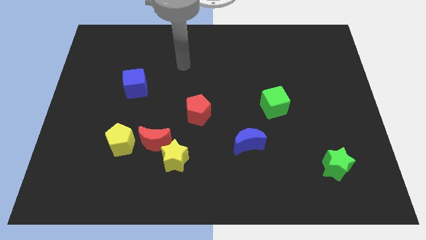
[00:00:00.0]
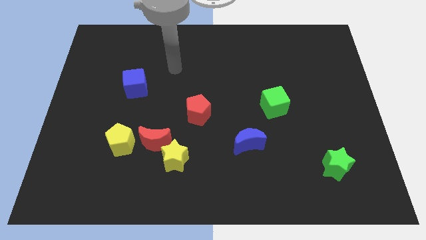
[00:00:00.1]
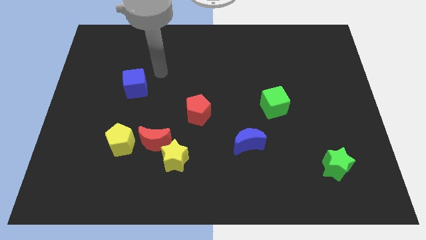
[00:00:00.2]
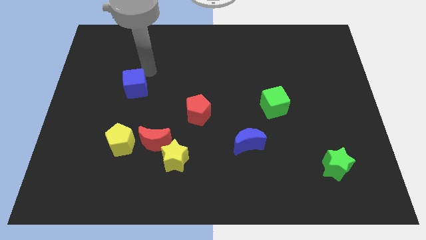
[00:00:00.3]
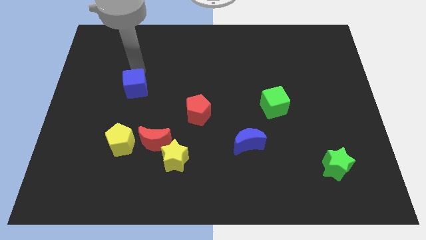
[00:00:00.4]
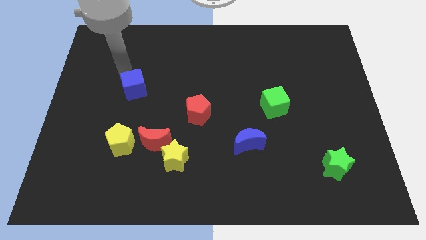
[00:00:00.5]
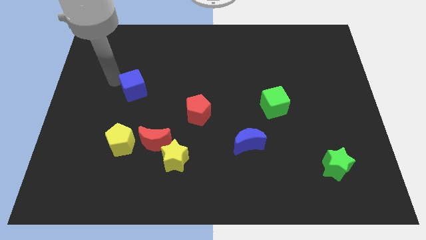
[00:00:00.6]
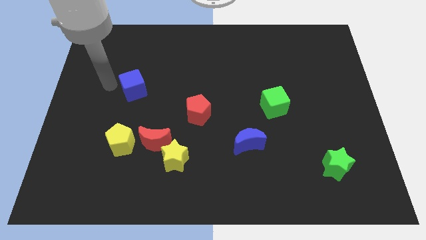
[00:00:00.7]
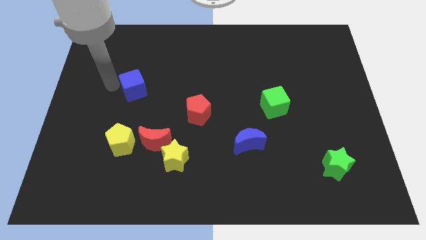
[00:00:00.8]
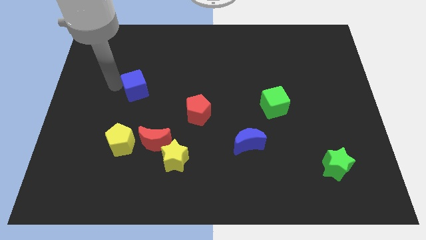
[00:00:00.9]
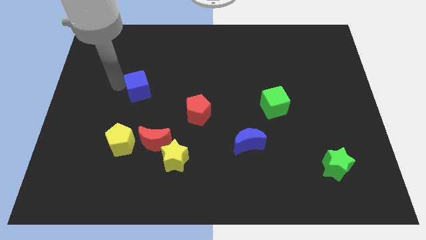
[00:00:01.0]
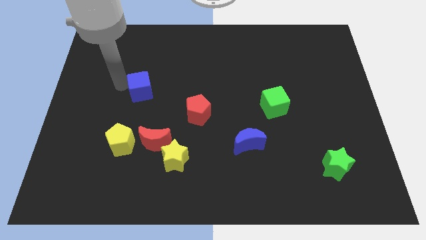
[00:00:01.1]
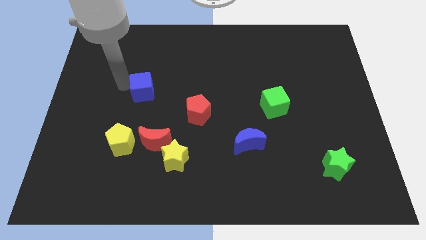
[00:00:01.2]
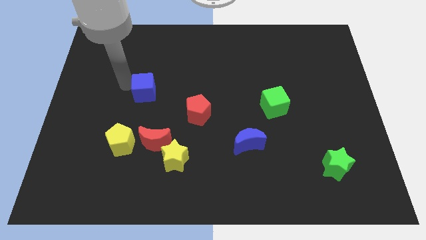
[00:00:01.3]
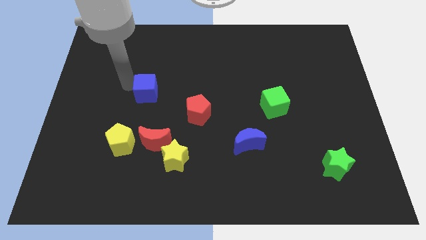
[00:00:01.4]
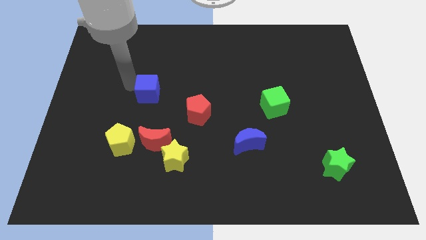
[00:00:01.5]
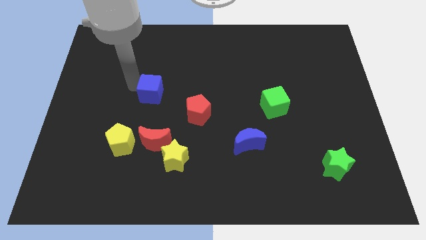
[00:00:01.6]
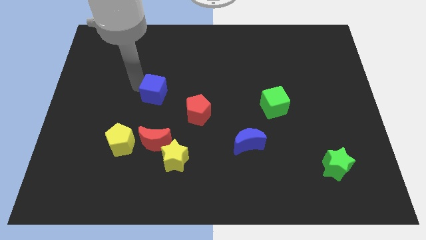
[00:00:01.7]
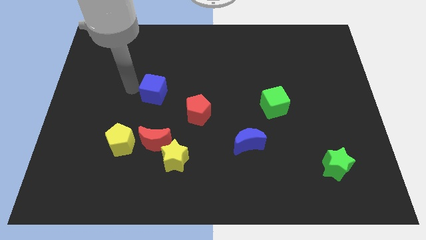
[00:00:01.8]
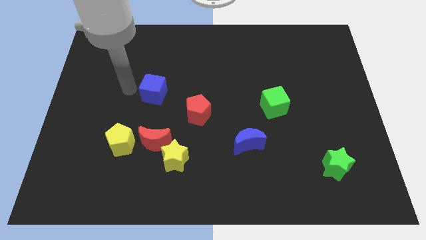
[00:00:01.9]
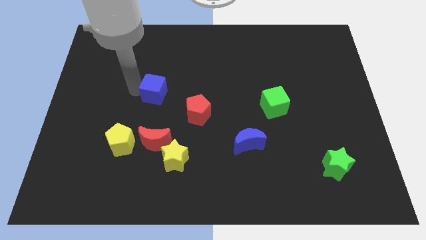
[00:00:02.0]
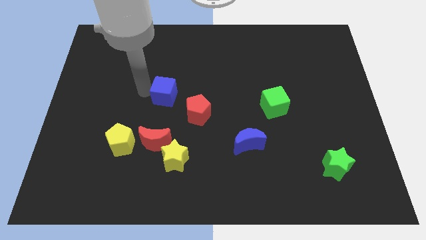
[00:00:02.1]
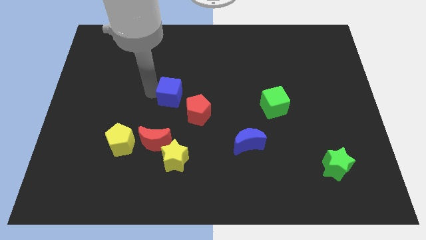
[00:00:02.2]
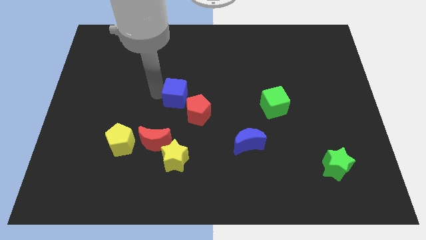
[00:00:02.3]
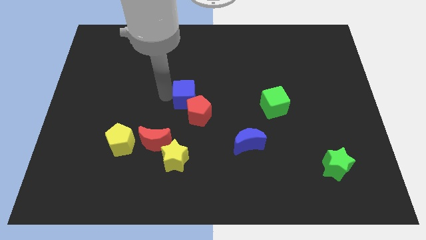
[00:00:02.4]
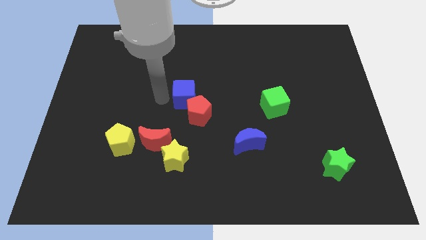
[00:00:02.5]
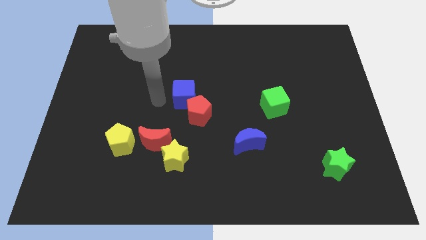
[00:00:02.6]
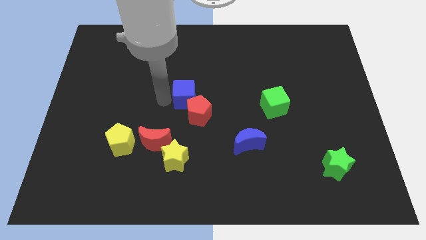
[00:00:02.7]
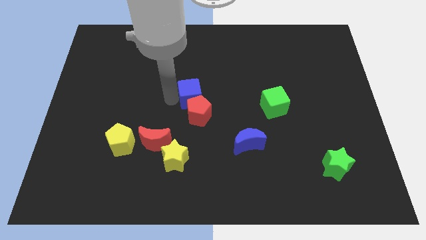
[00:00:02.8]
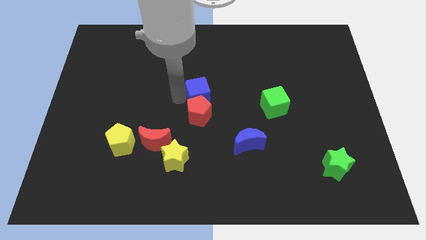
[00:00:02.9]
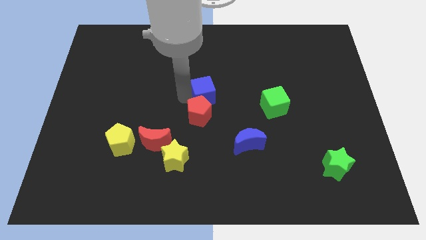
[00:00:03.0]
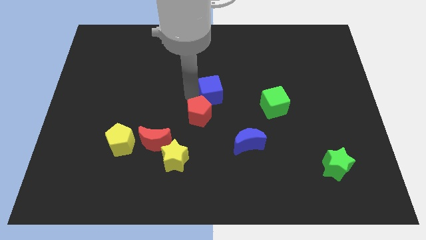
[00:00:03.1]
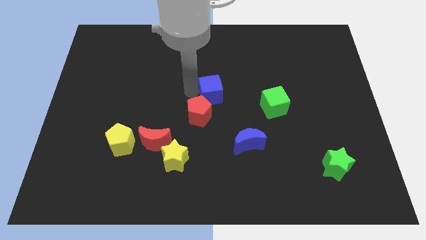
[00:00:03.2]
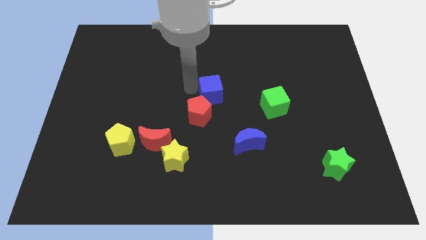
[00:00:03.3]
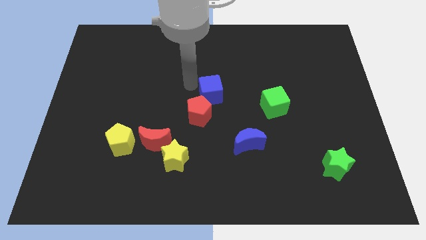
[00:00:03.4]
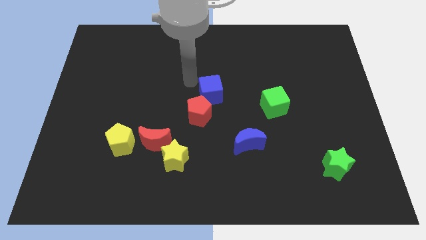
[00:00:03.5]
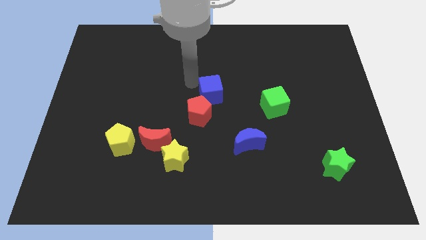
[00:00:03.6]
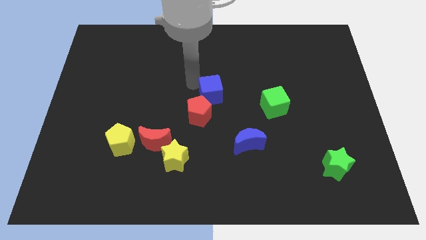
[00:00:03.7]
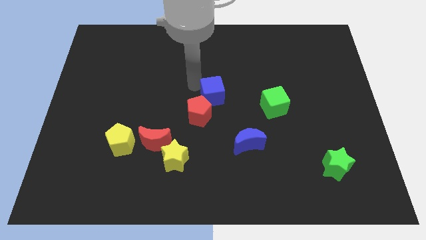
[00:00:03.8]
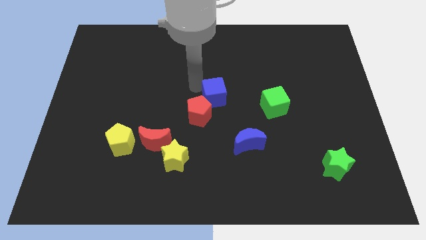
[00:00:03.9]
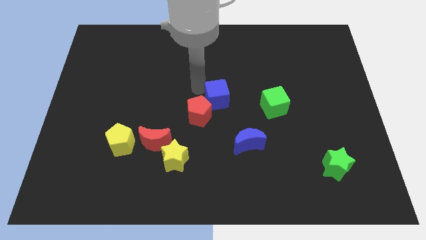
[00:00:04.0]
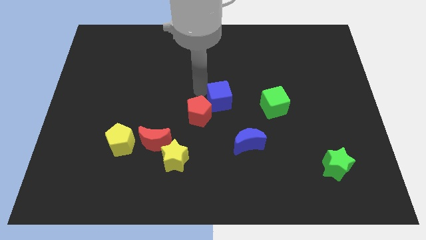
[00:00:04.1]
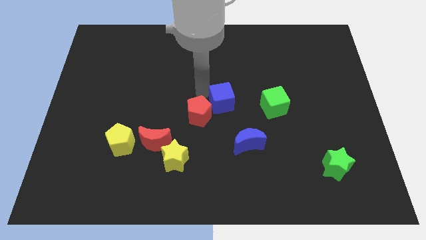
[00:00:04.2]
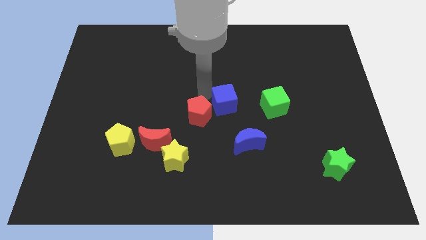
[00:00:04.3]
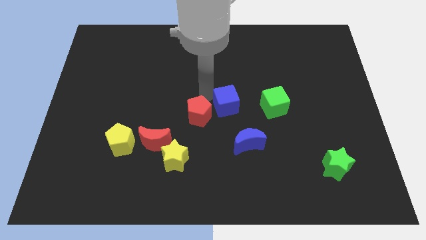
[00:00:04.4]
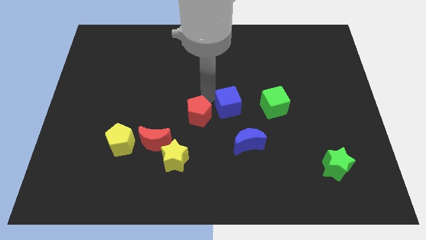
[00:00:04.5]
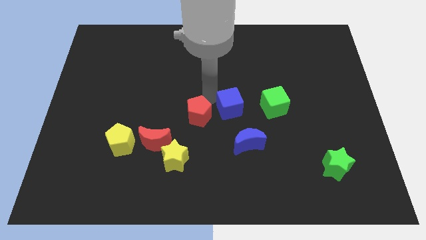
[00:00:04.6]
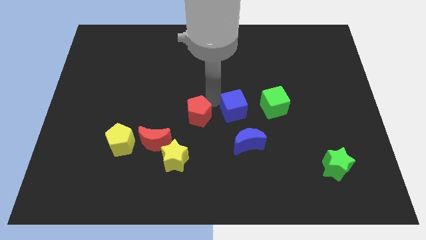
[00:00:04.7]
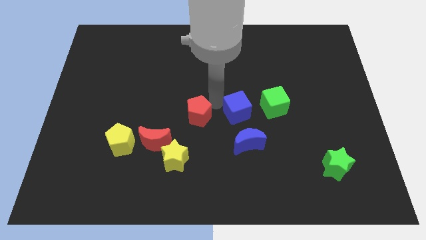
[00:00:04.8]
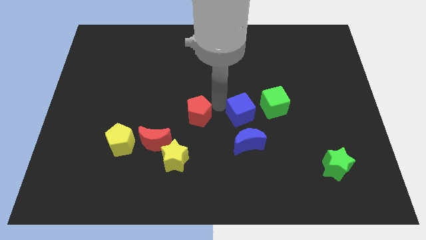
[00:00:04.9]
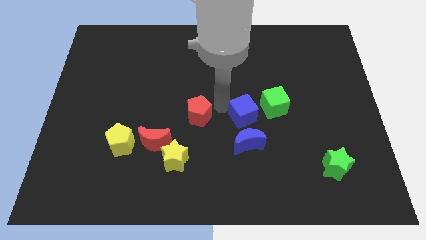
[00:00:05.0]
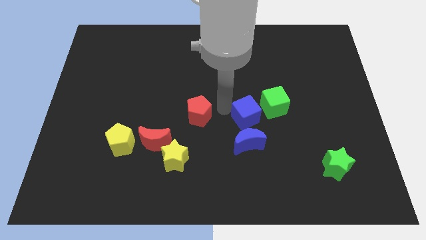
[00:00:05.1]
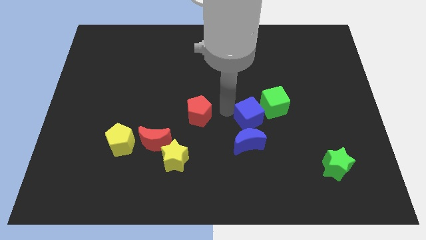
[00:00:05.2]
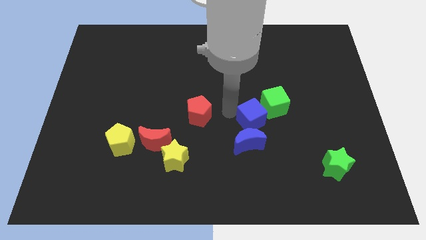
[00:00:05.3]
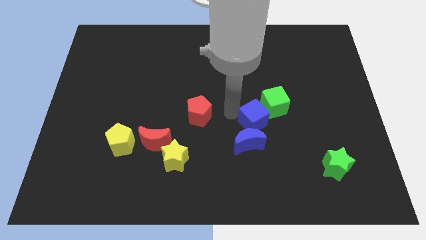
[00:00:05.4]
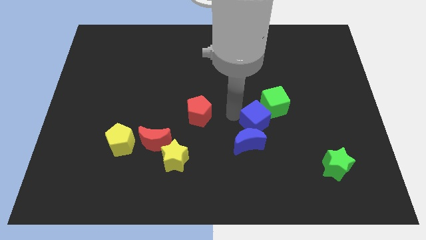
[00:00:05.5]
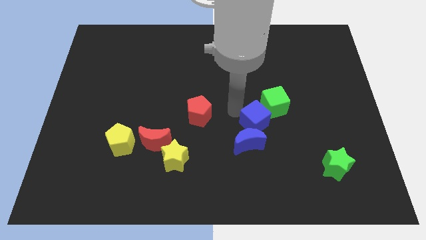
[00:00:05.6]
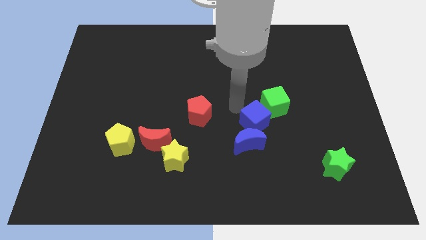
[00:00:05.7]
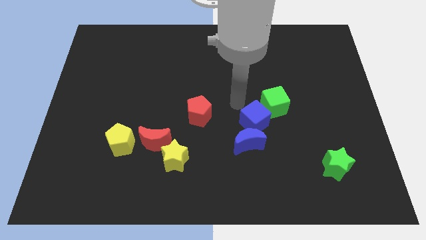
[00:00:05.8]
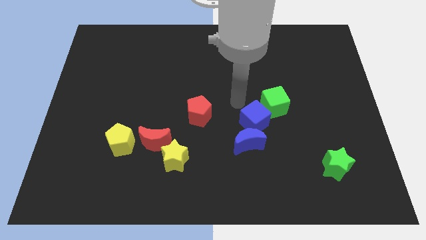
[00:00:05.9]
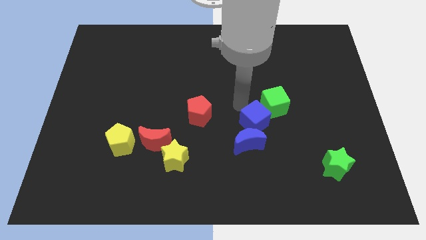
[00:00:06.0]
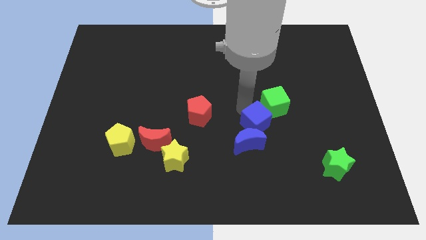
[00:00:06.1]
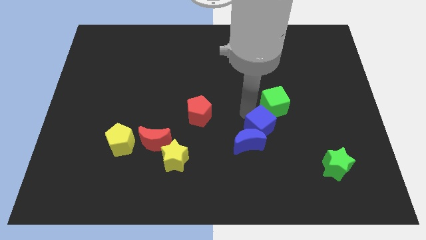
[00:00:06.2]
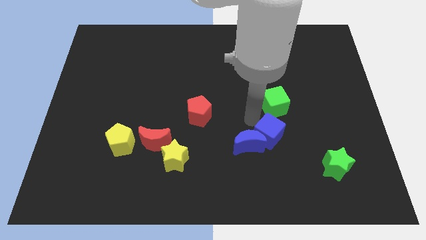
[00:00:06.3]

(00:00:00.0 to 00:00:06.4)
put the blue cube just right of the blue moon

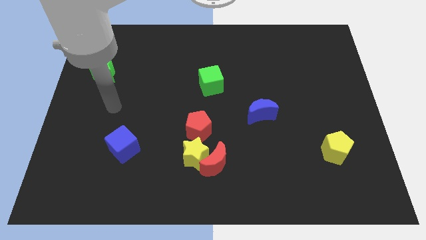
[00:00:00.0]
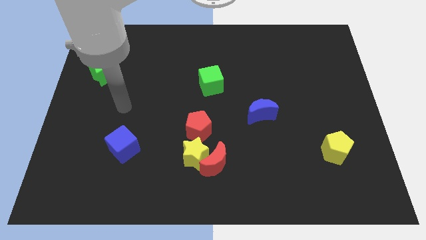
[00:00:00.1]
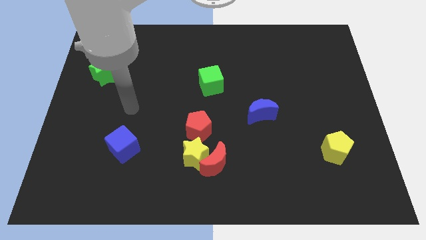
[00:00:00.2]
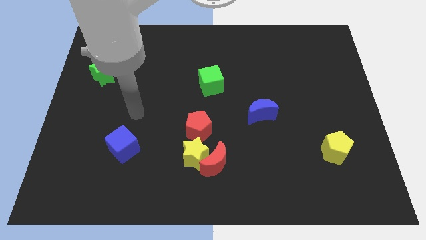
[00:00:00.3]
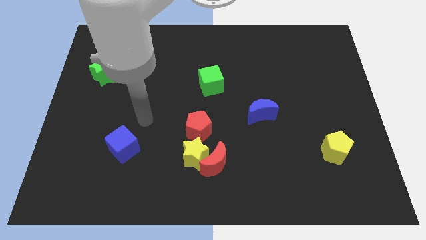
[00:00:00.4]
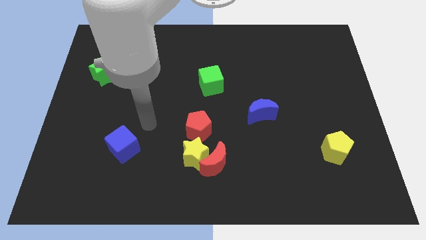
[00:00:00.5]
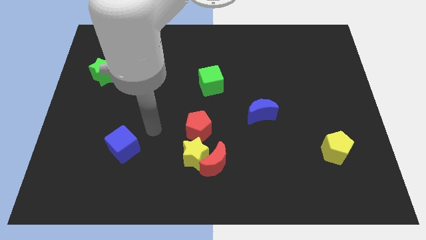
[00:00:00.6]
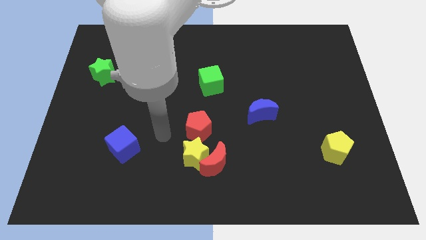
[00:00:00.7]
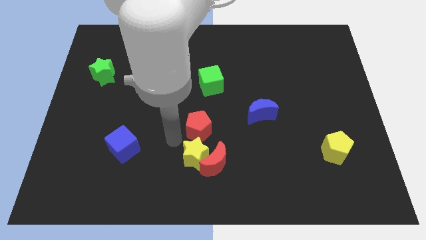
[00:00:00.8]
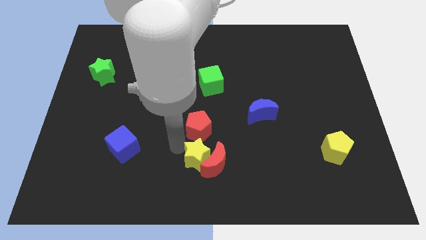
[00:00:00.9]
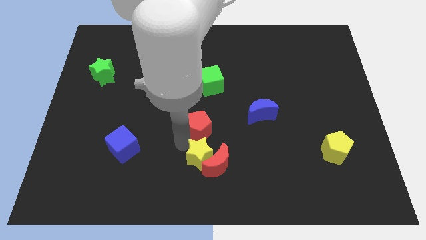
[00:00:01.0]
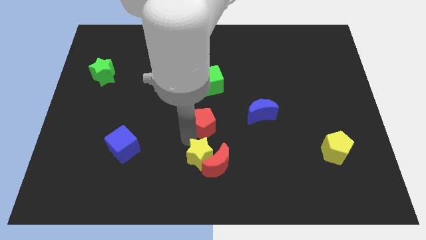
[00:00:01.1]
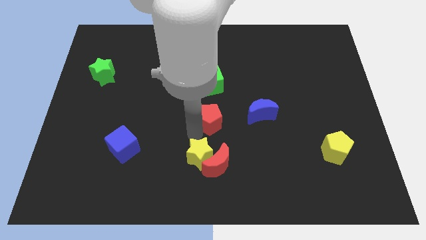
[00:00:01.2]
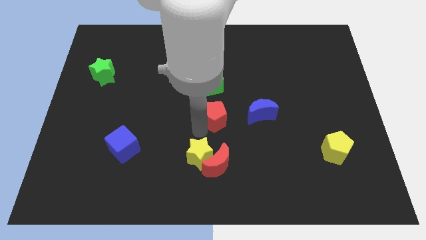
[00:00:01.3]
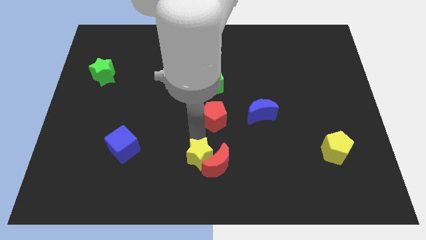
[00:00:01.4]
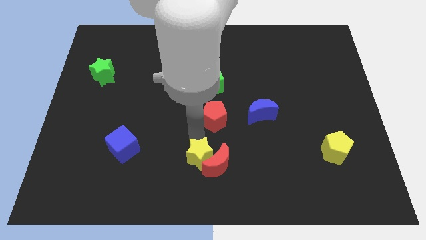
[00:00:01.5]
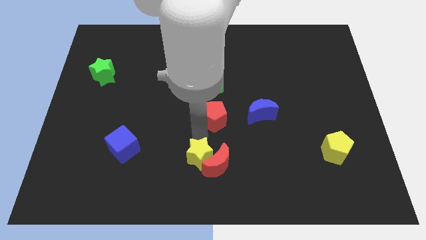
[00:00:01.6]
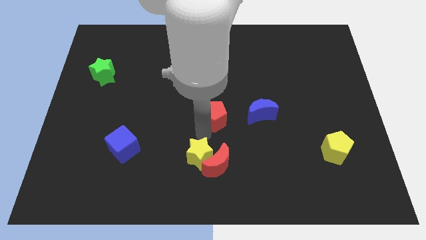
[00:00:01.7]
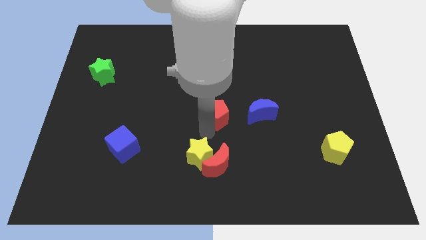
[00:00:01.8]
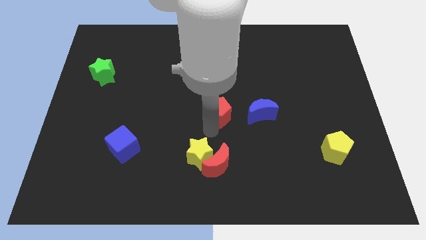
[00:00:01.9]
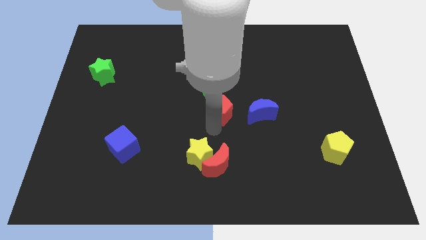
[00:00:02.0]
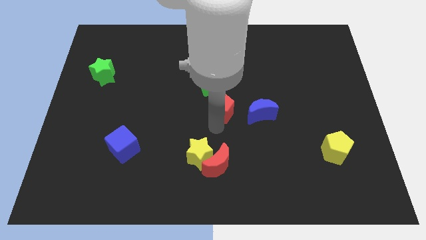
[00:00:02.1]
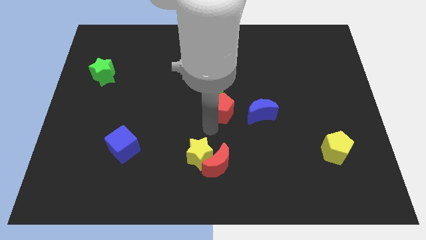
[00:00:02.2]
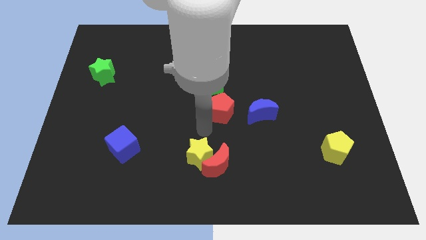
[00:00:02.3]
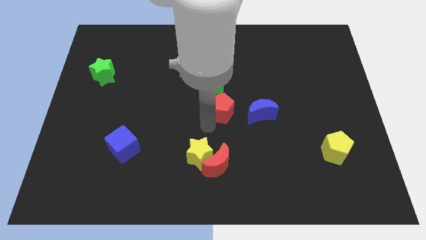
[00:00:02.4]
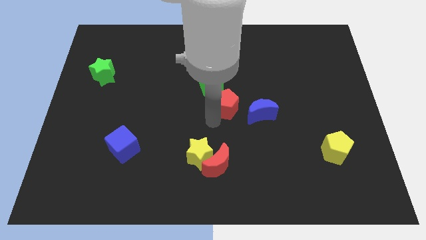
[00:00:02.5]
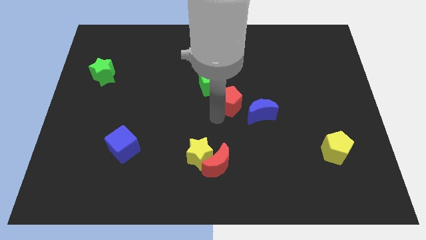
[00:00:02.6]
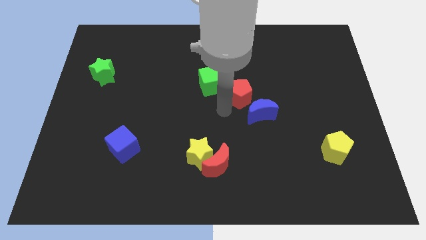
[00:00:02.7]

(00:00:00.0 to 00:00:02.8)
slide the red pentagon to the top of the blue moon
